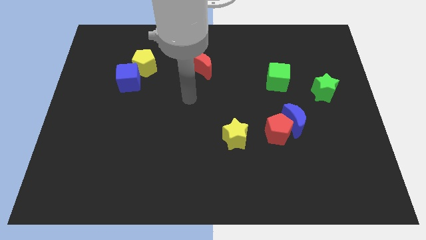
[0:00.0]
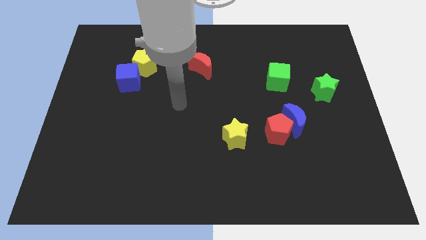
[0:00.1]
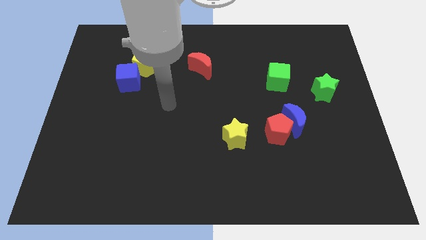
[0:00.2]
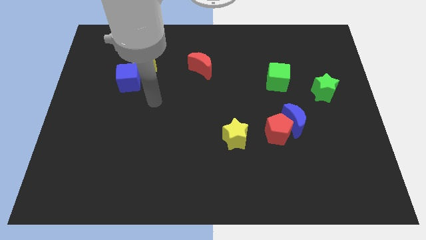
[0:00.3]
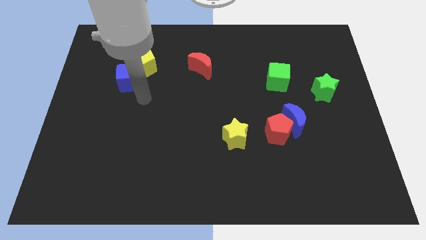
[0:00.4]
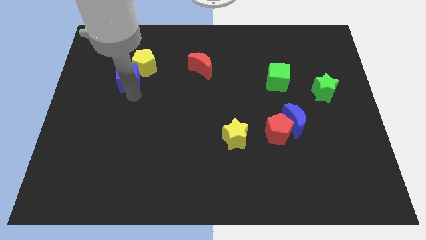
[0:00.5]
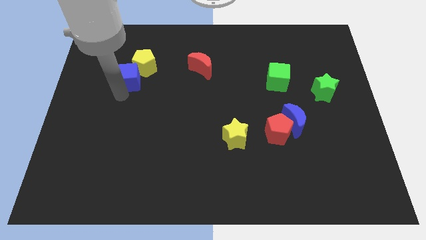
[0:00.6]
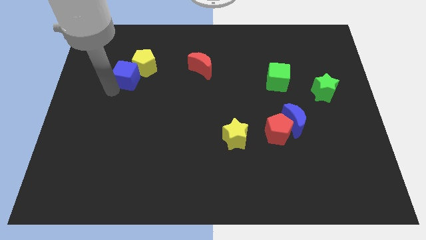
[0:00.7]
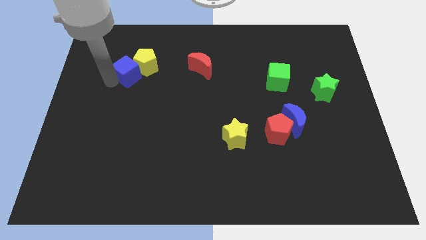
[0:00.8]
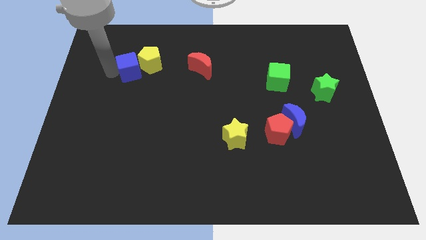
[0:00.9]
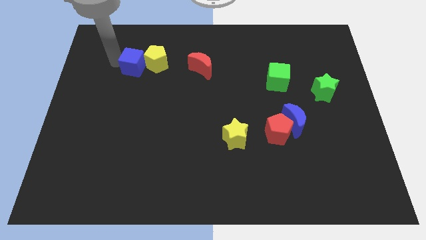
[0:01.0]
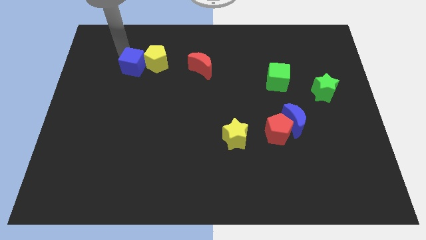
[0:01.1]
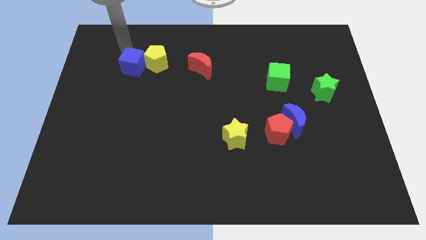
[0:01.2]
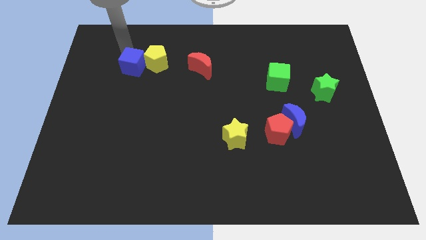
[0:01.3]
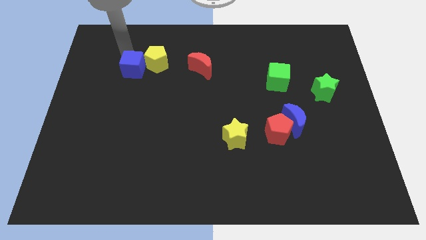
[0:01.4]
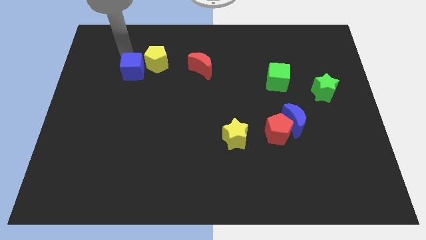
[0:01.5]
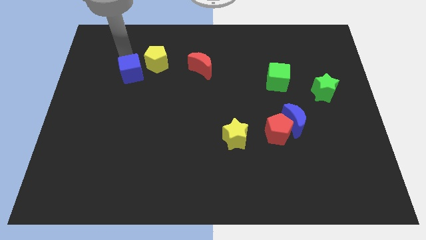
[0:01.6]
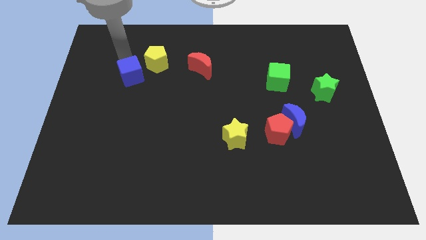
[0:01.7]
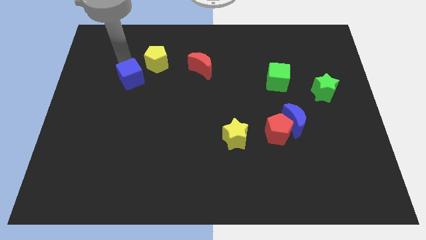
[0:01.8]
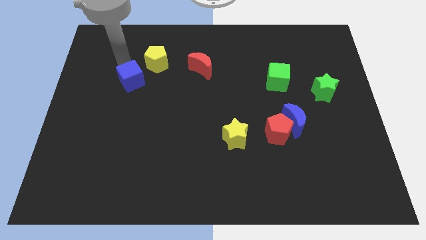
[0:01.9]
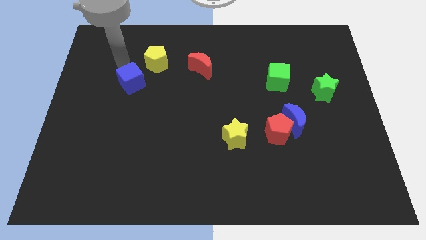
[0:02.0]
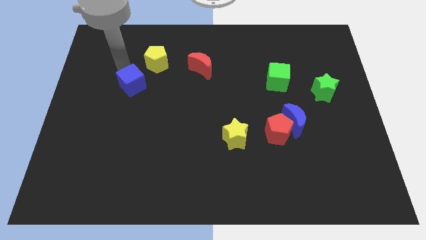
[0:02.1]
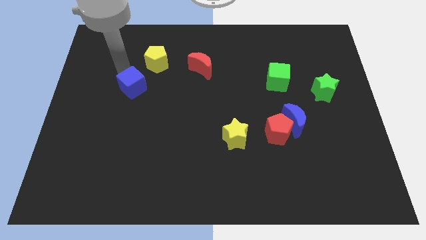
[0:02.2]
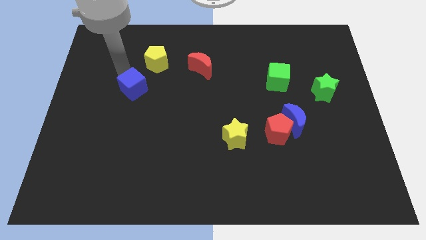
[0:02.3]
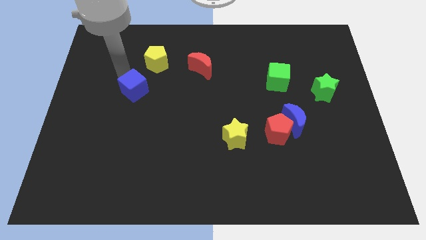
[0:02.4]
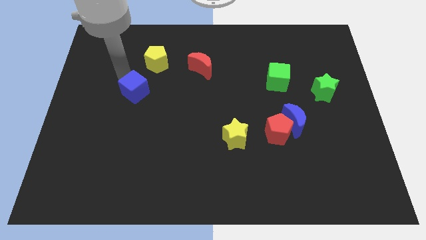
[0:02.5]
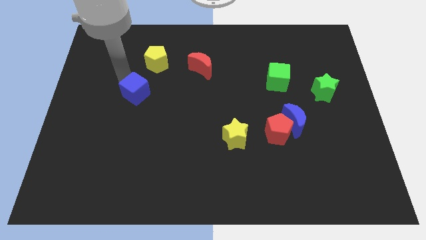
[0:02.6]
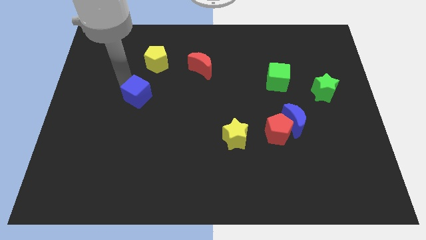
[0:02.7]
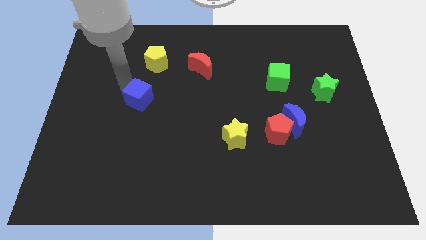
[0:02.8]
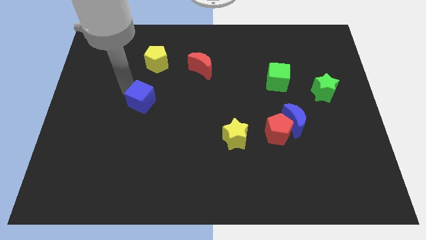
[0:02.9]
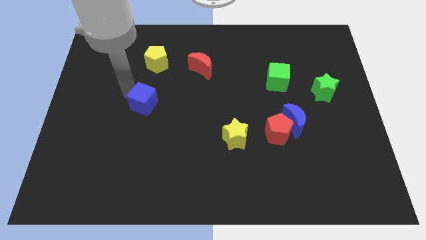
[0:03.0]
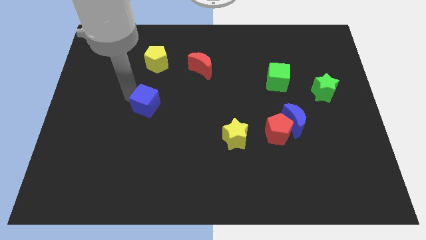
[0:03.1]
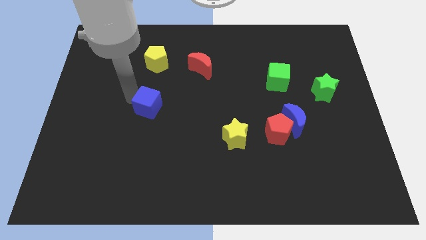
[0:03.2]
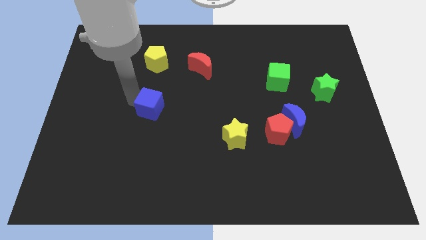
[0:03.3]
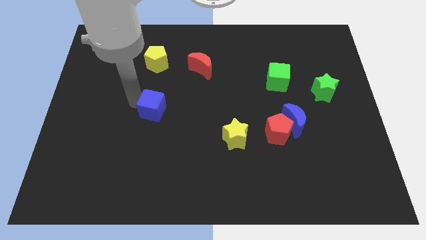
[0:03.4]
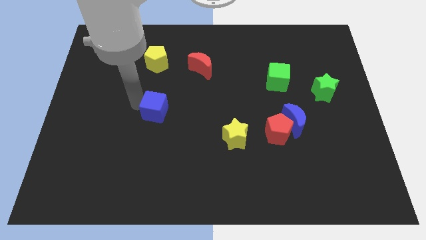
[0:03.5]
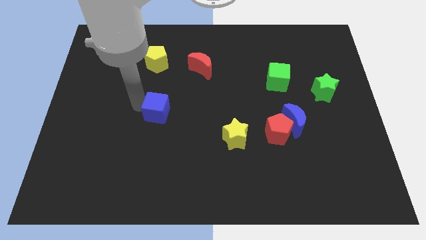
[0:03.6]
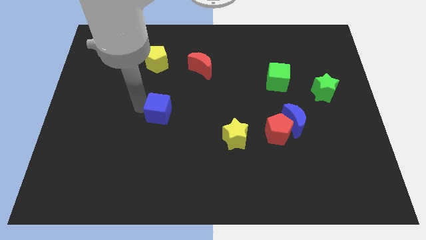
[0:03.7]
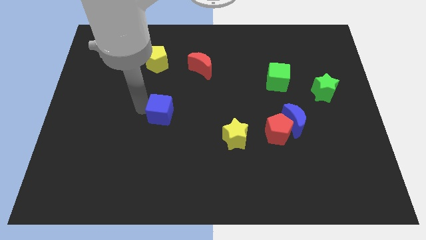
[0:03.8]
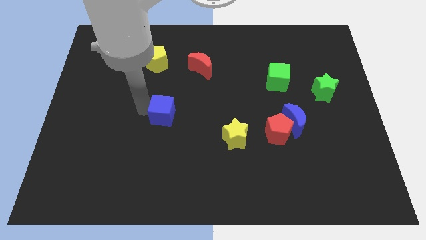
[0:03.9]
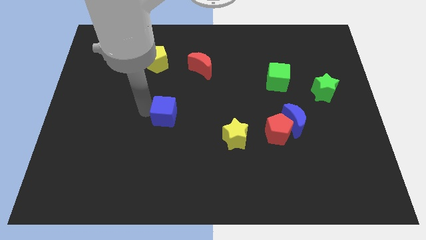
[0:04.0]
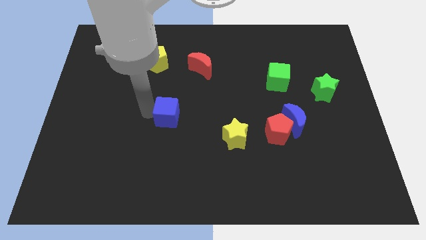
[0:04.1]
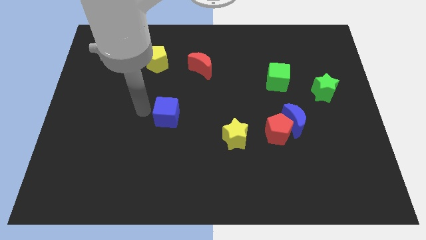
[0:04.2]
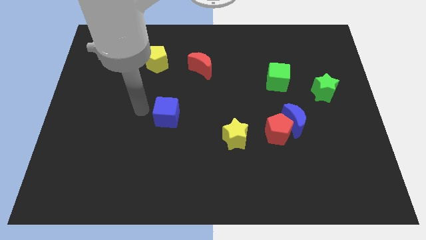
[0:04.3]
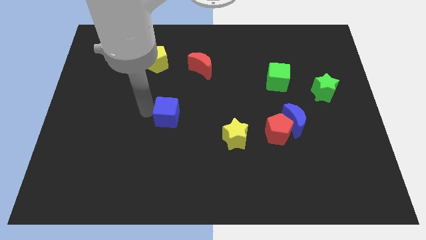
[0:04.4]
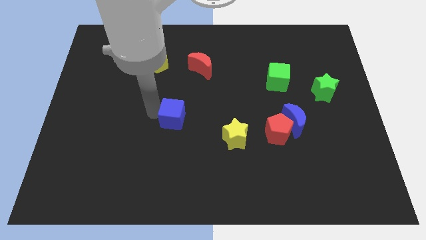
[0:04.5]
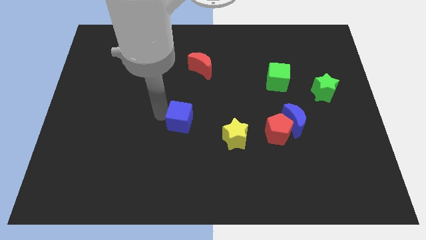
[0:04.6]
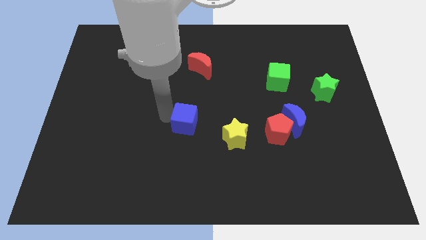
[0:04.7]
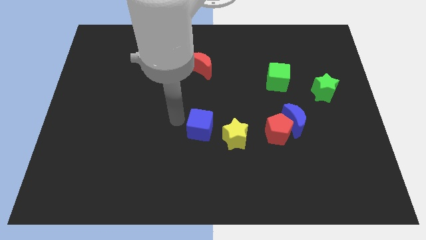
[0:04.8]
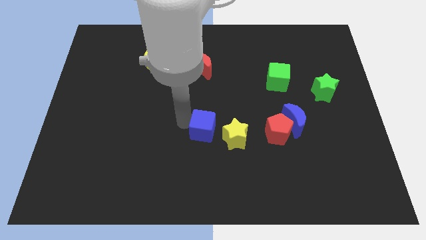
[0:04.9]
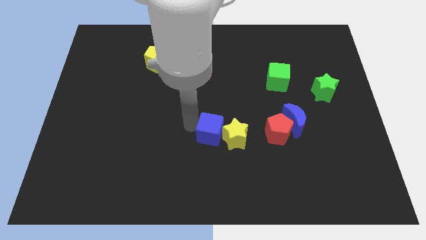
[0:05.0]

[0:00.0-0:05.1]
slide the blue cube to the left of the red pentagon

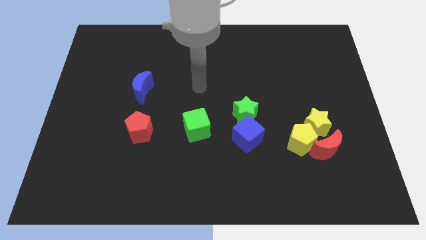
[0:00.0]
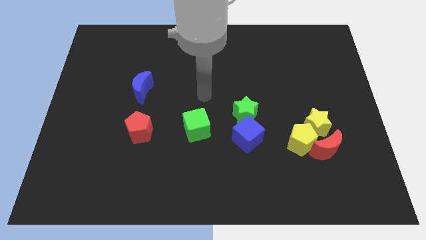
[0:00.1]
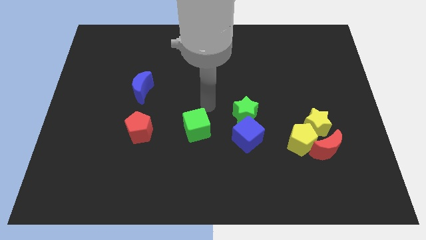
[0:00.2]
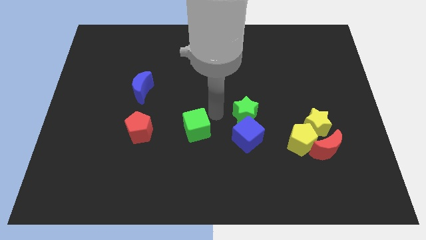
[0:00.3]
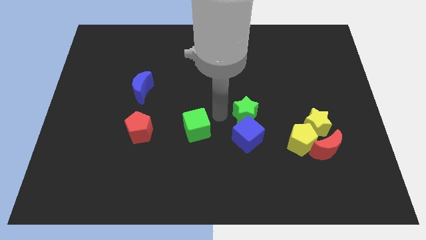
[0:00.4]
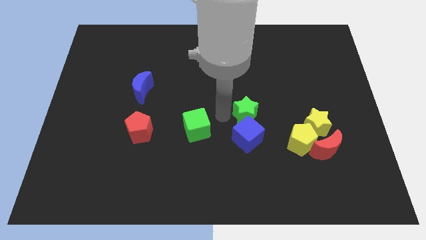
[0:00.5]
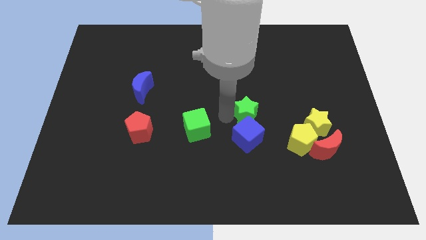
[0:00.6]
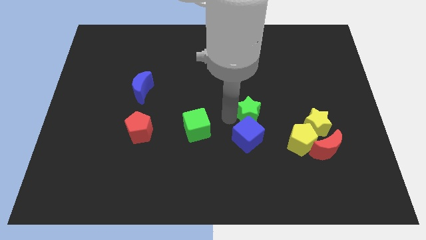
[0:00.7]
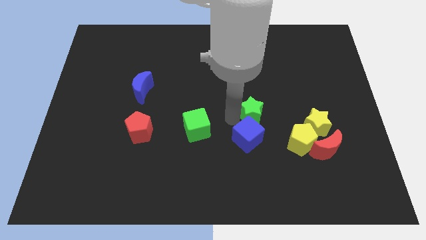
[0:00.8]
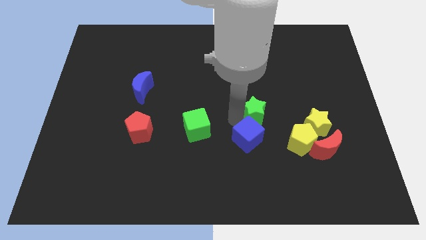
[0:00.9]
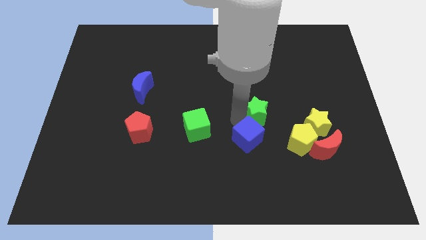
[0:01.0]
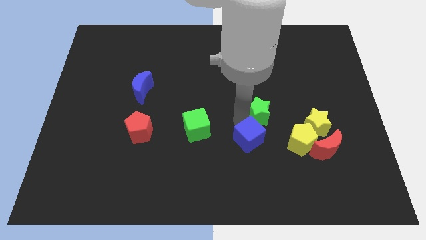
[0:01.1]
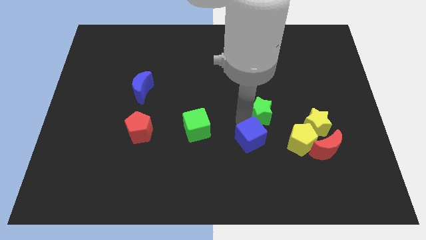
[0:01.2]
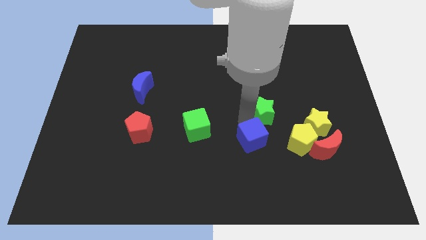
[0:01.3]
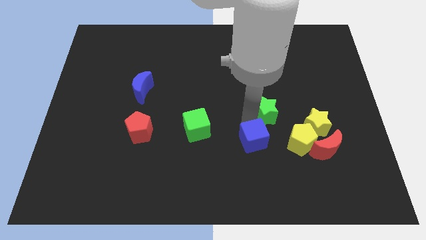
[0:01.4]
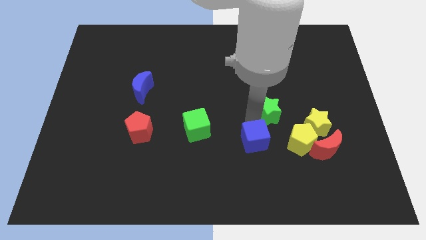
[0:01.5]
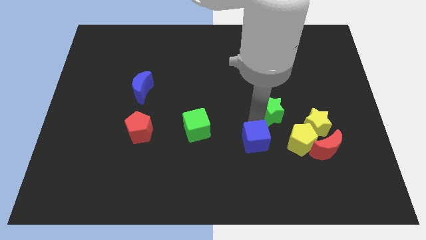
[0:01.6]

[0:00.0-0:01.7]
put the green star to the top left of the yellow star
